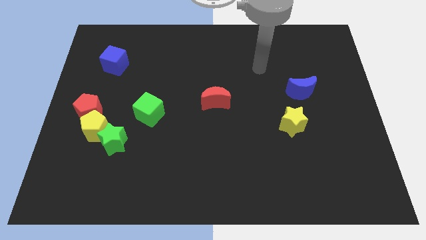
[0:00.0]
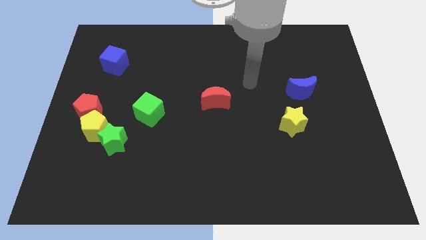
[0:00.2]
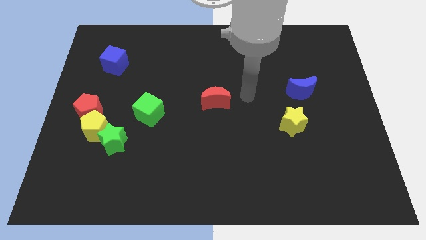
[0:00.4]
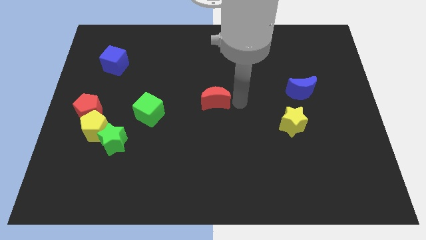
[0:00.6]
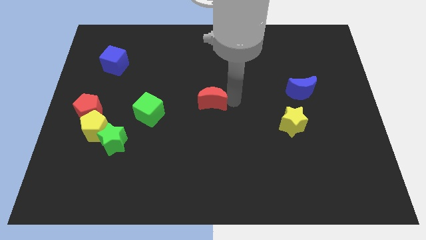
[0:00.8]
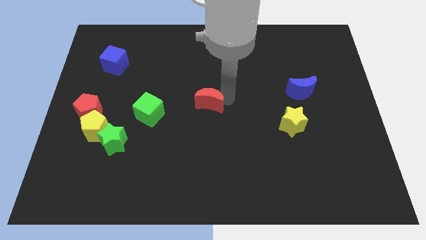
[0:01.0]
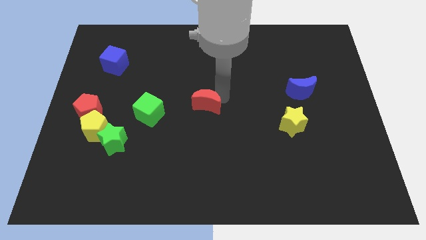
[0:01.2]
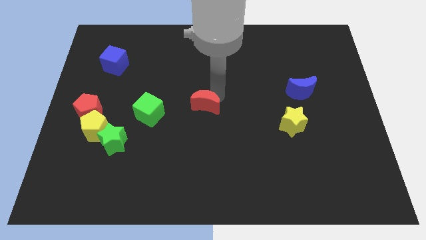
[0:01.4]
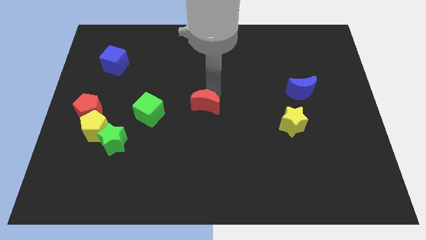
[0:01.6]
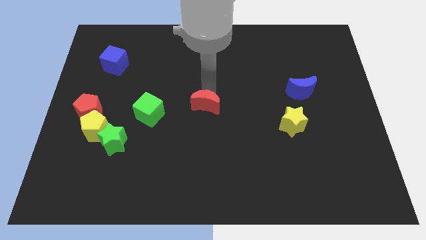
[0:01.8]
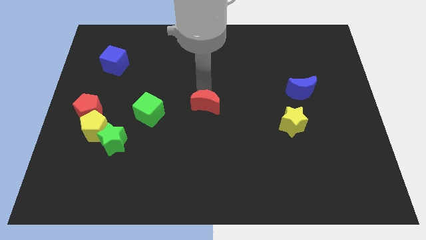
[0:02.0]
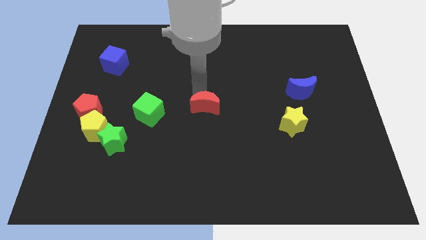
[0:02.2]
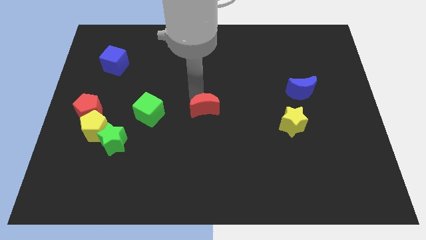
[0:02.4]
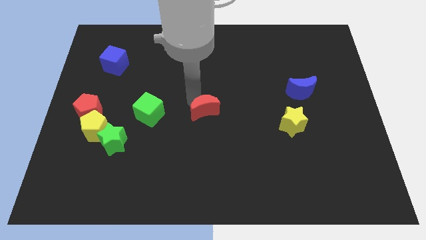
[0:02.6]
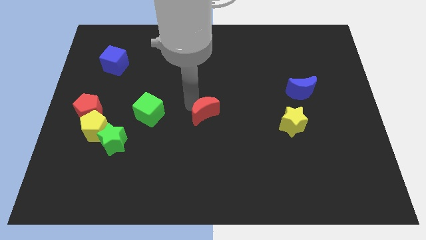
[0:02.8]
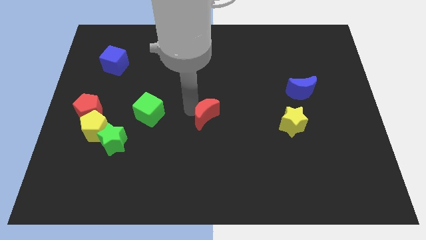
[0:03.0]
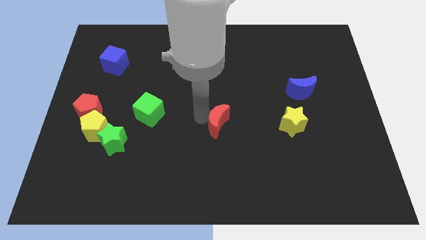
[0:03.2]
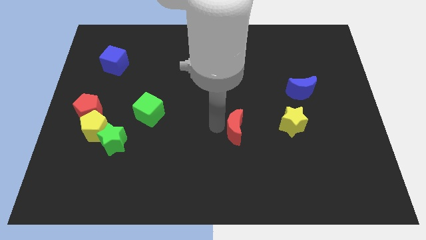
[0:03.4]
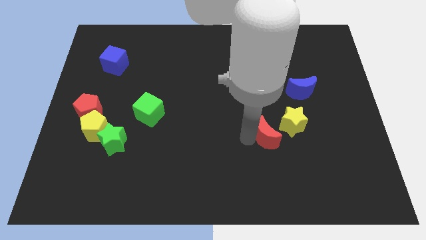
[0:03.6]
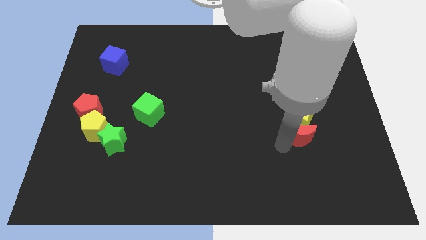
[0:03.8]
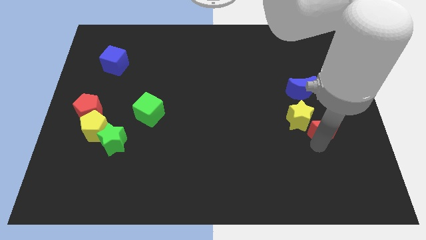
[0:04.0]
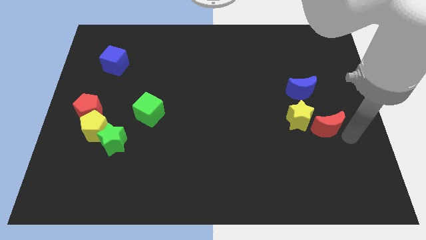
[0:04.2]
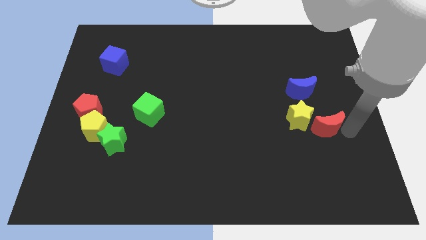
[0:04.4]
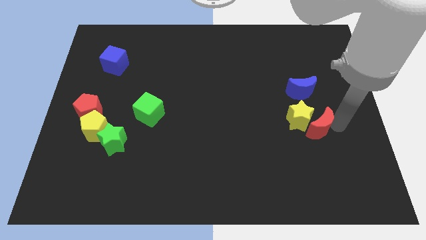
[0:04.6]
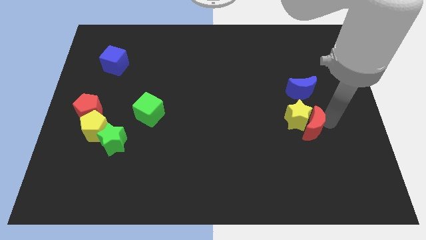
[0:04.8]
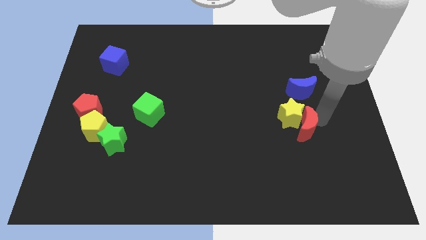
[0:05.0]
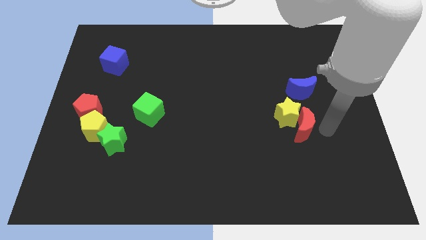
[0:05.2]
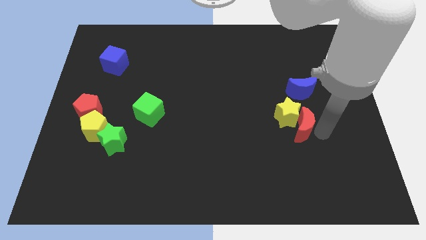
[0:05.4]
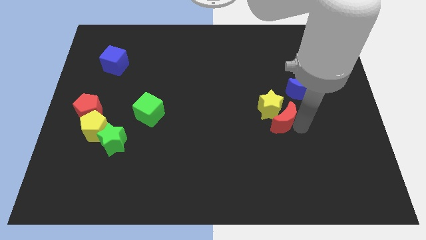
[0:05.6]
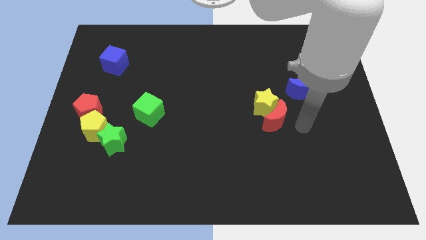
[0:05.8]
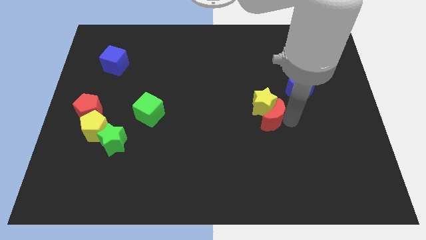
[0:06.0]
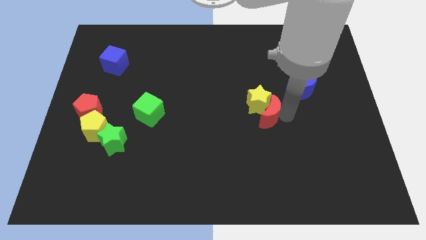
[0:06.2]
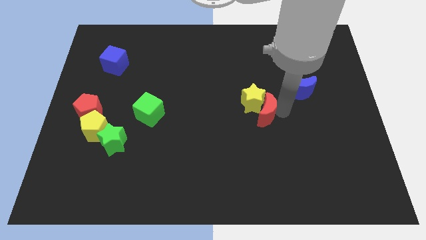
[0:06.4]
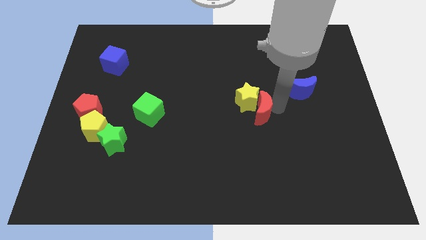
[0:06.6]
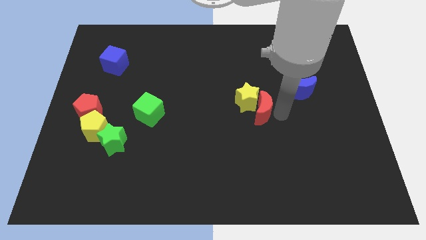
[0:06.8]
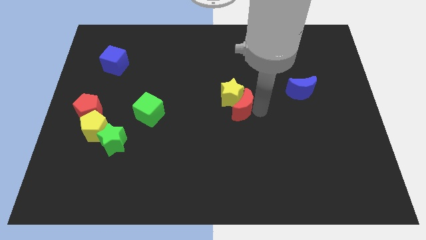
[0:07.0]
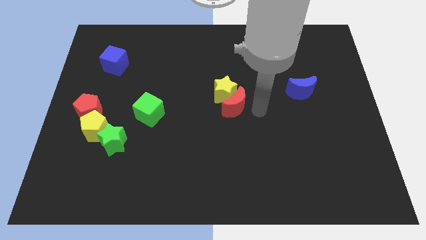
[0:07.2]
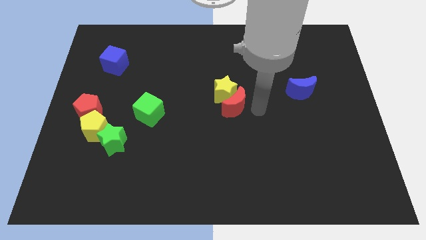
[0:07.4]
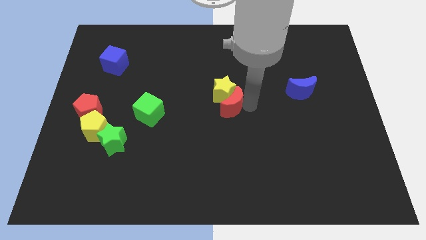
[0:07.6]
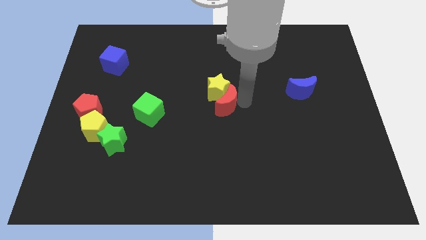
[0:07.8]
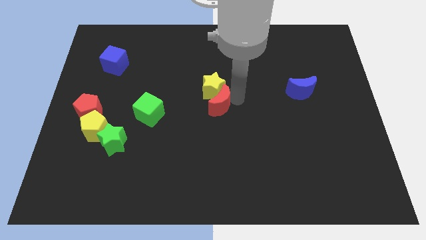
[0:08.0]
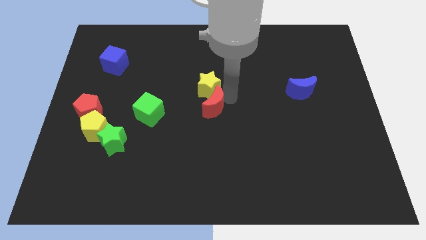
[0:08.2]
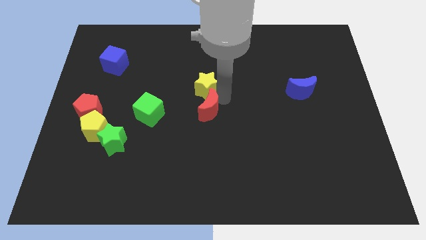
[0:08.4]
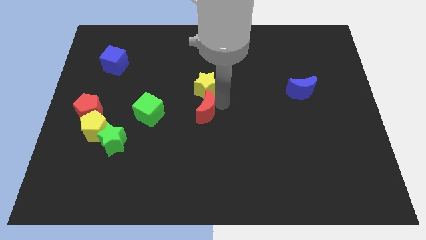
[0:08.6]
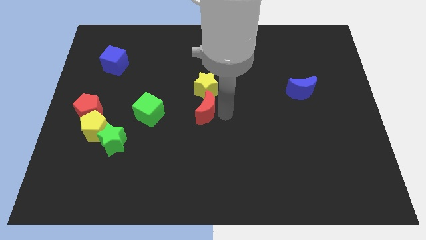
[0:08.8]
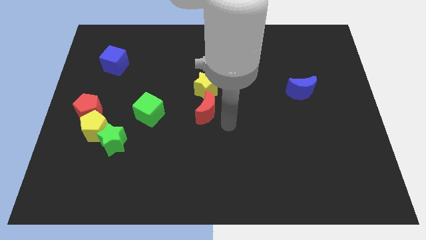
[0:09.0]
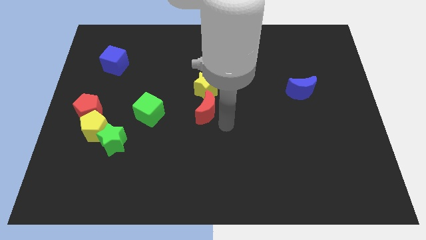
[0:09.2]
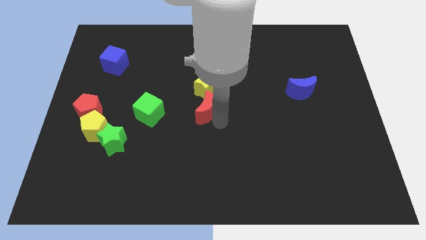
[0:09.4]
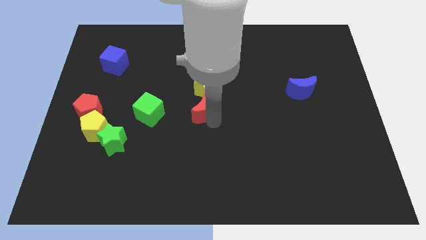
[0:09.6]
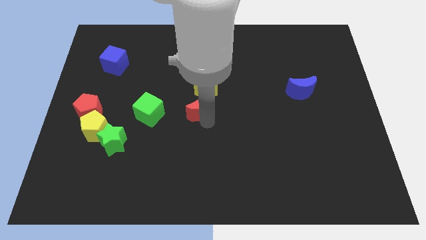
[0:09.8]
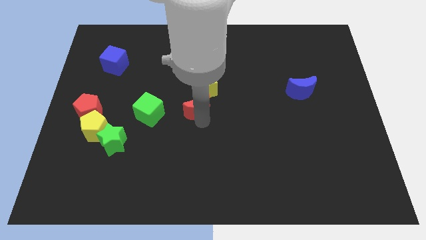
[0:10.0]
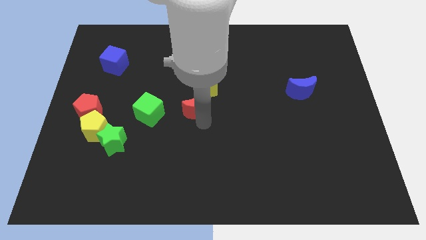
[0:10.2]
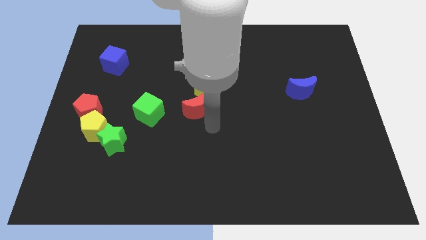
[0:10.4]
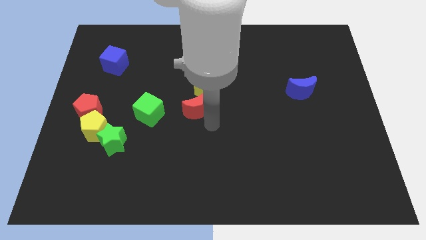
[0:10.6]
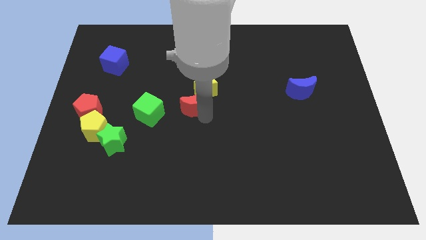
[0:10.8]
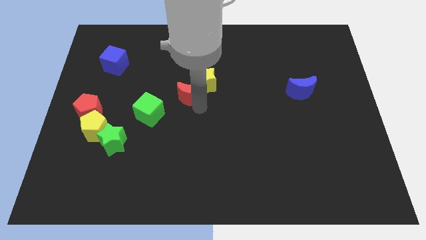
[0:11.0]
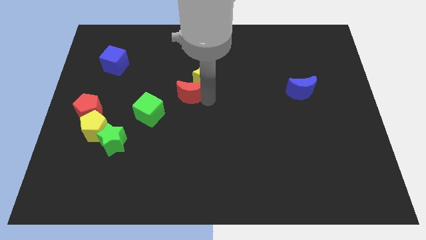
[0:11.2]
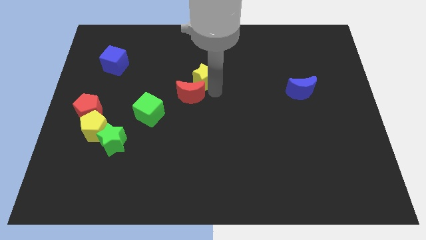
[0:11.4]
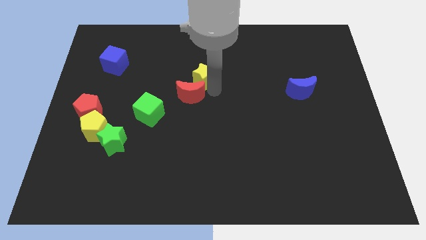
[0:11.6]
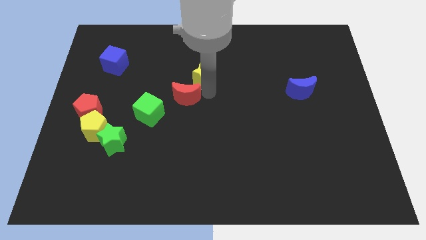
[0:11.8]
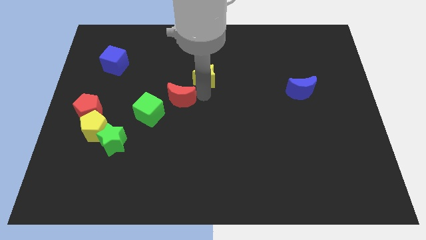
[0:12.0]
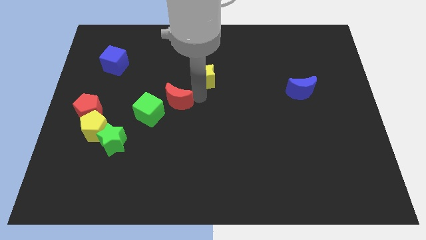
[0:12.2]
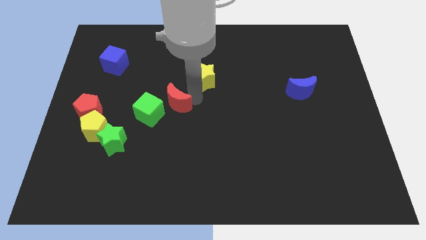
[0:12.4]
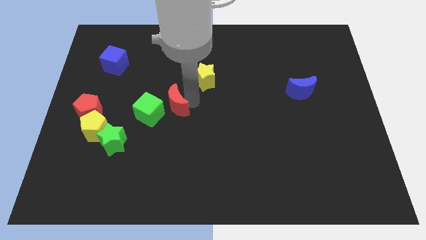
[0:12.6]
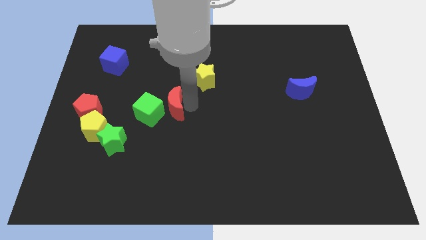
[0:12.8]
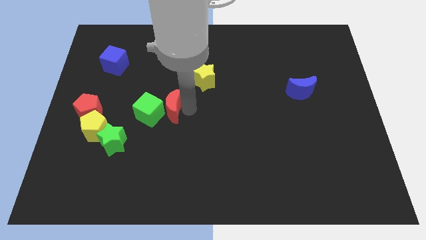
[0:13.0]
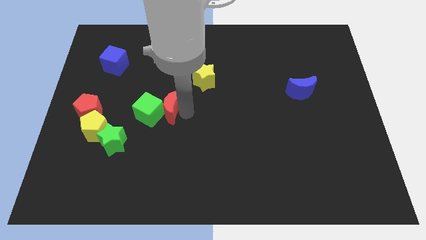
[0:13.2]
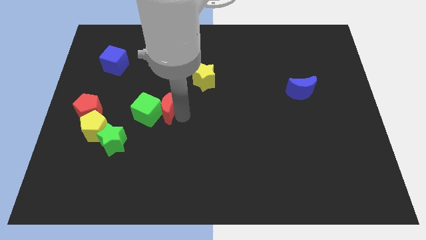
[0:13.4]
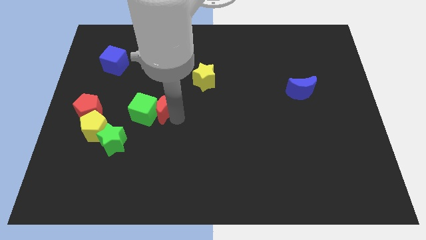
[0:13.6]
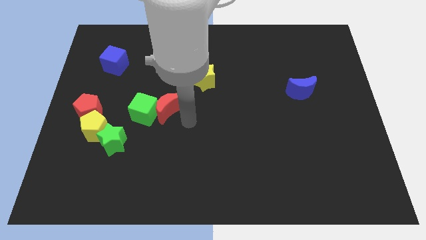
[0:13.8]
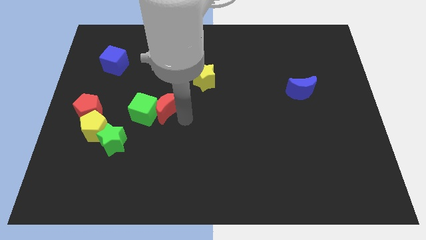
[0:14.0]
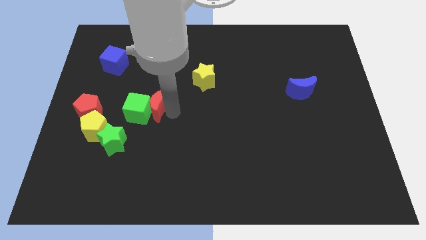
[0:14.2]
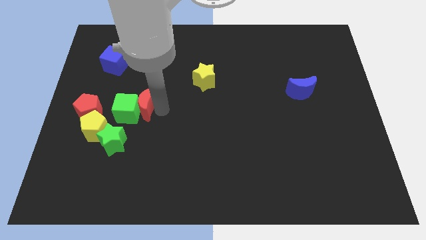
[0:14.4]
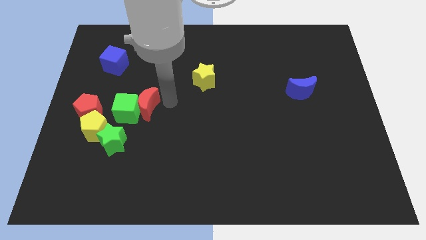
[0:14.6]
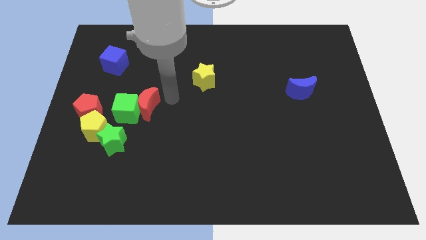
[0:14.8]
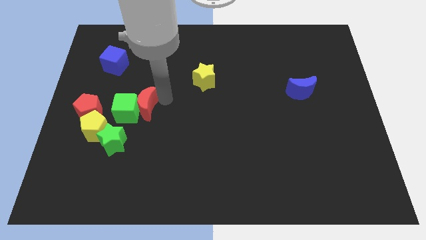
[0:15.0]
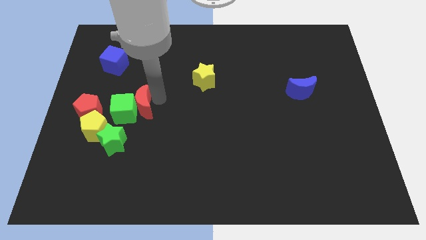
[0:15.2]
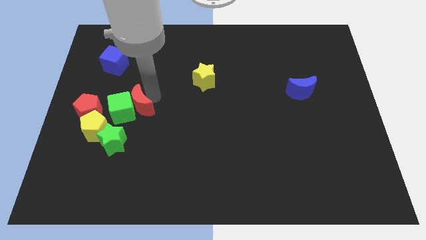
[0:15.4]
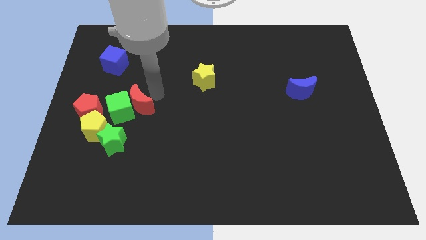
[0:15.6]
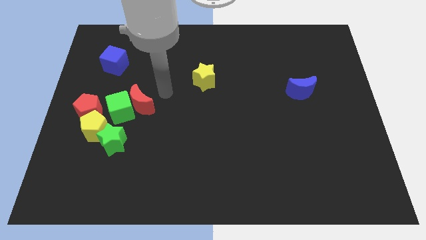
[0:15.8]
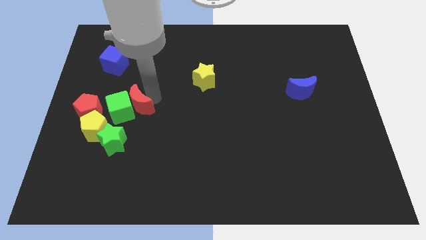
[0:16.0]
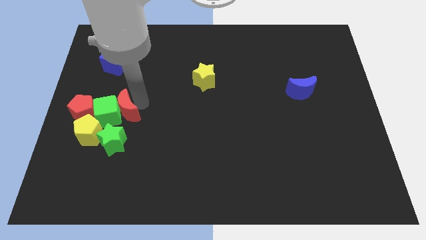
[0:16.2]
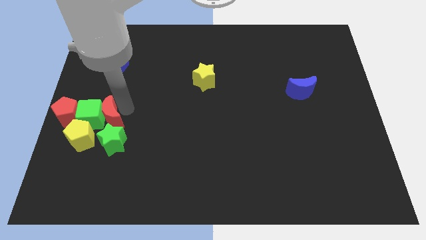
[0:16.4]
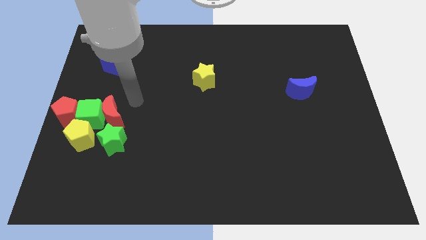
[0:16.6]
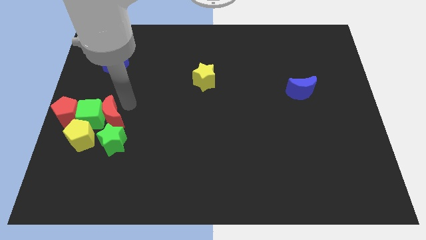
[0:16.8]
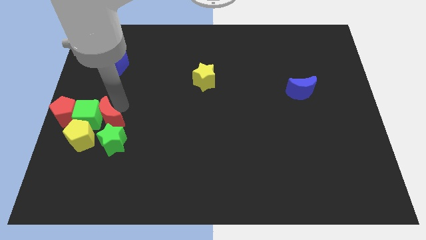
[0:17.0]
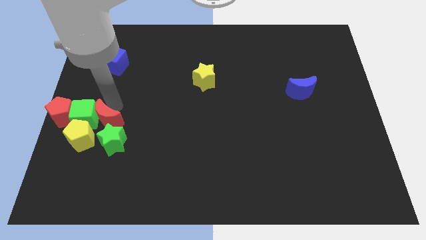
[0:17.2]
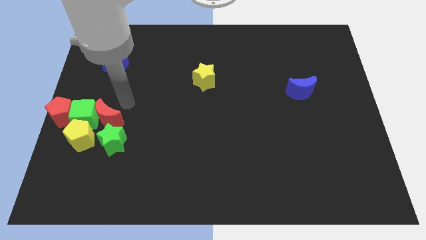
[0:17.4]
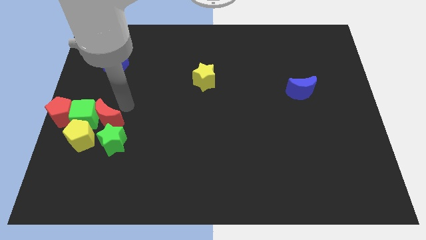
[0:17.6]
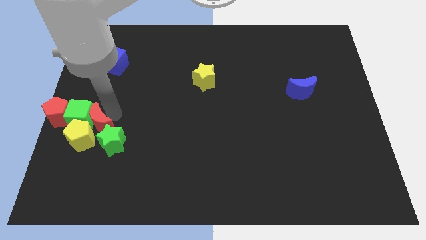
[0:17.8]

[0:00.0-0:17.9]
push the red moon next to the yellow pentagon
